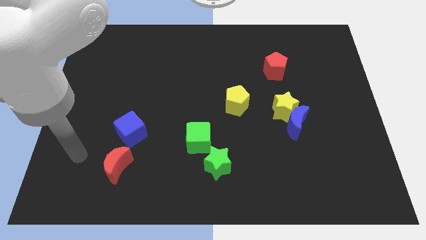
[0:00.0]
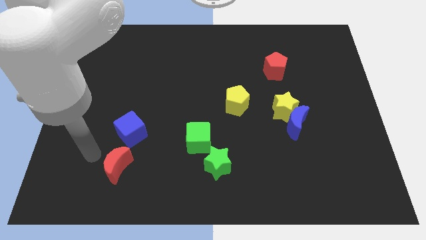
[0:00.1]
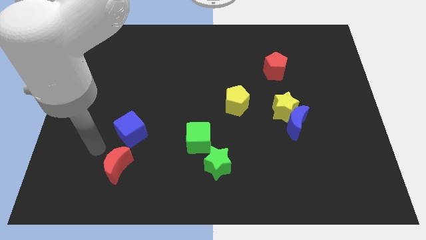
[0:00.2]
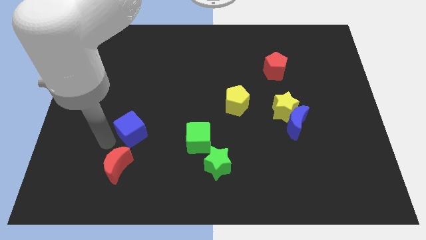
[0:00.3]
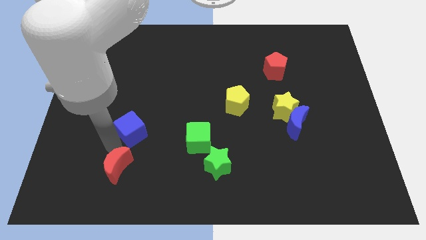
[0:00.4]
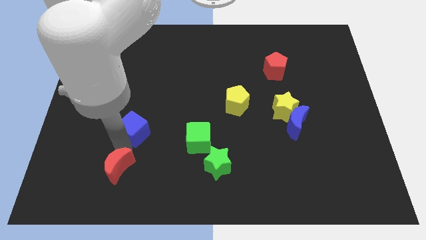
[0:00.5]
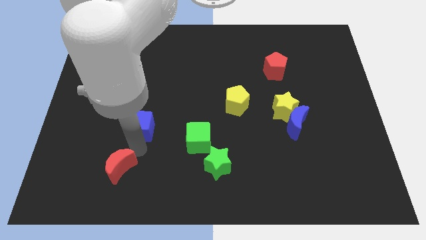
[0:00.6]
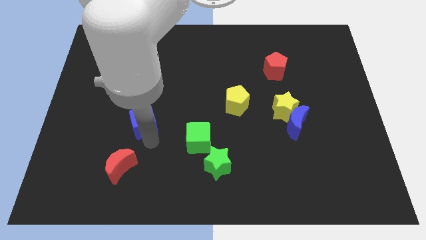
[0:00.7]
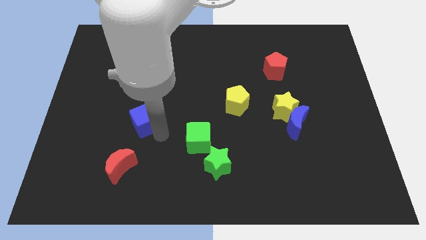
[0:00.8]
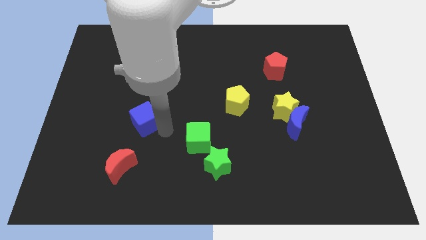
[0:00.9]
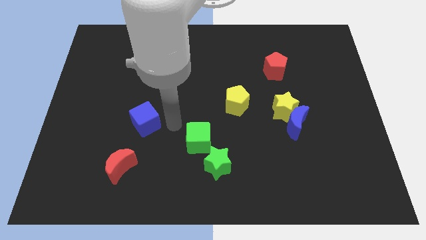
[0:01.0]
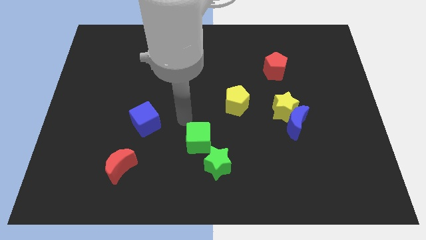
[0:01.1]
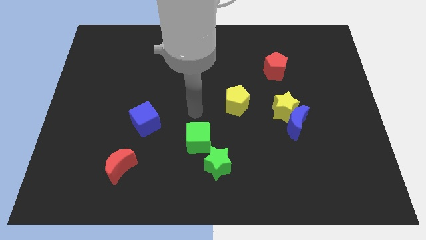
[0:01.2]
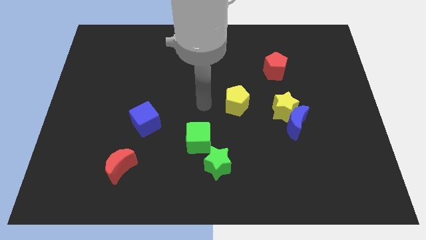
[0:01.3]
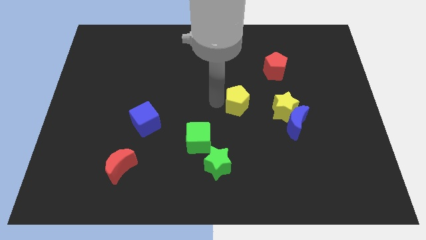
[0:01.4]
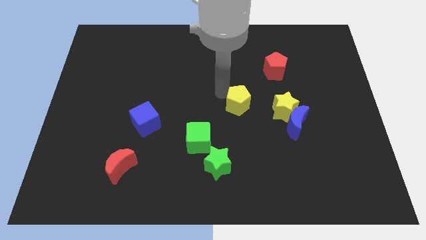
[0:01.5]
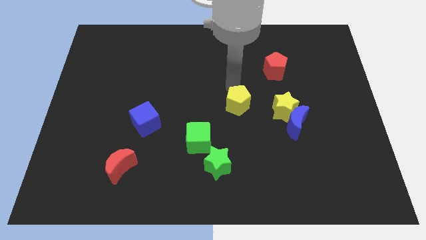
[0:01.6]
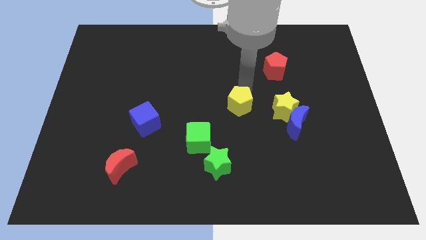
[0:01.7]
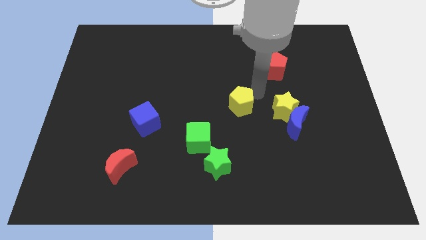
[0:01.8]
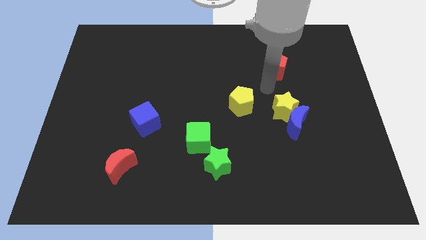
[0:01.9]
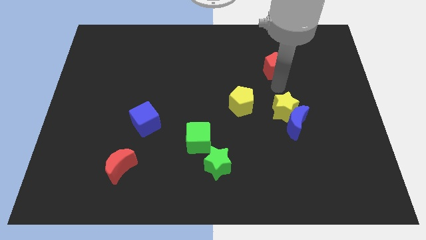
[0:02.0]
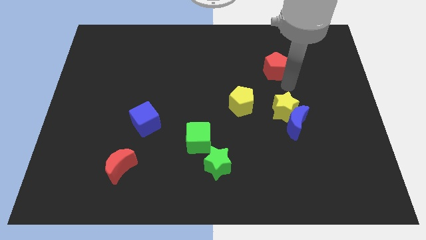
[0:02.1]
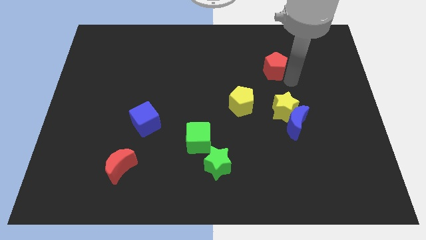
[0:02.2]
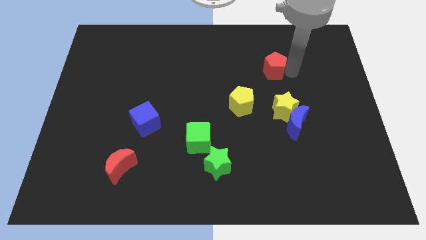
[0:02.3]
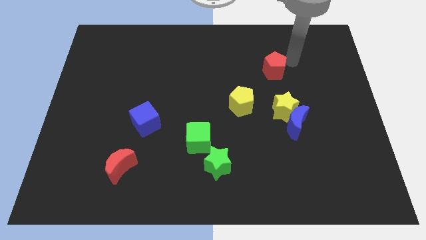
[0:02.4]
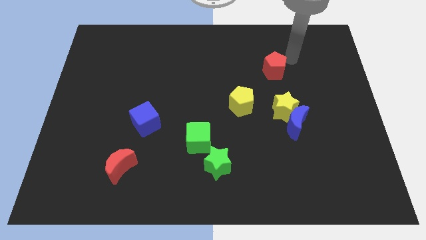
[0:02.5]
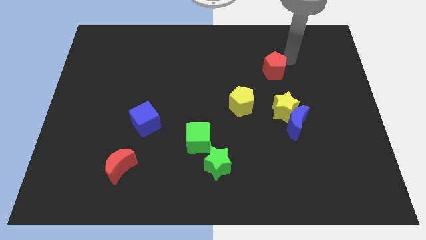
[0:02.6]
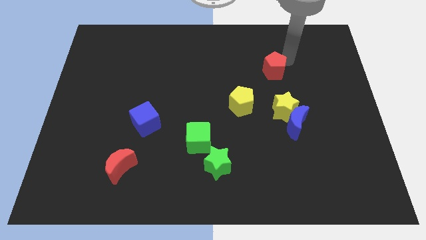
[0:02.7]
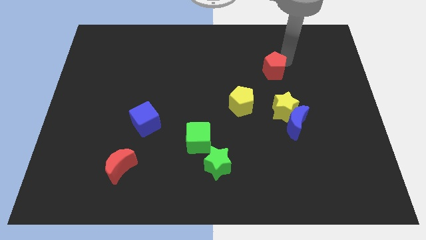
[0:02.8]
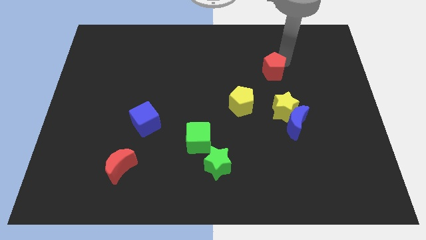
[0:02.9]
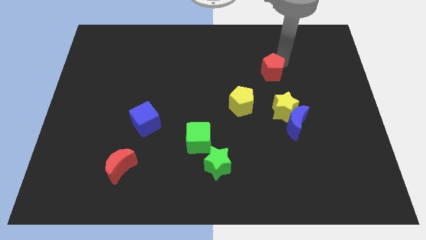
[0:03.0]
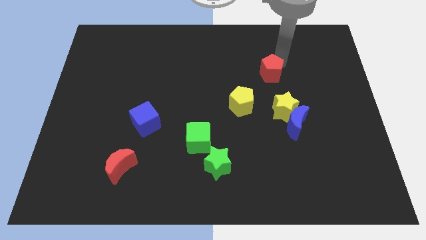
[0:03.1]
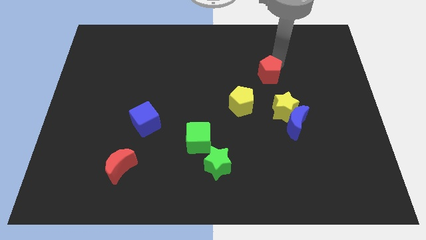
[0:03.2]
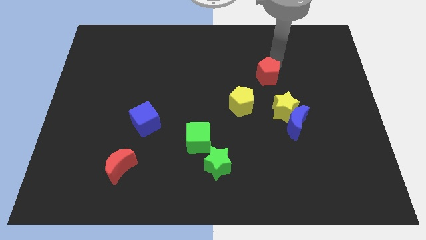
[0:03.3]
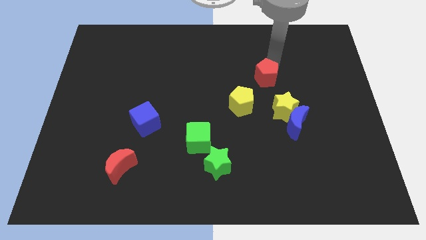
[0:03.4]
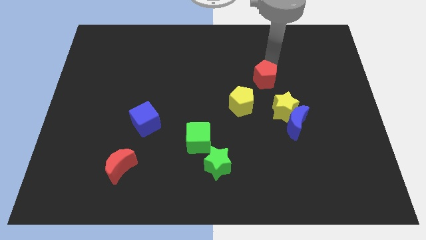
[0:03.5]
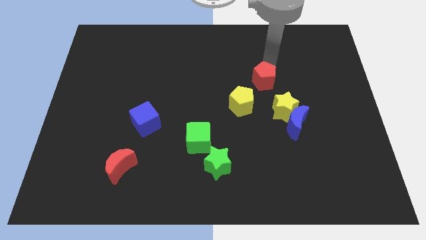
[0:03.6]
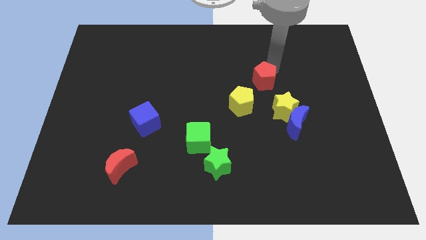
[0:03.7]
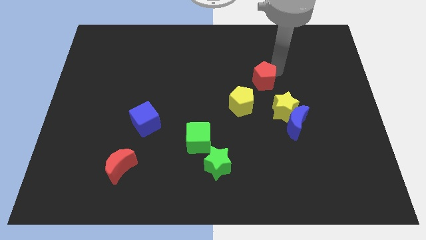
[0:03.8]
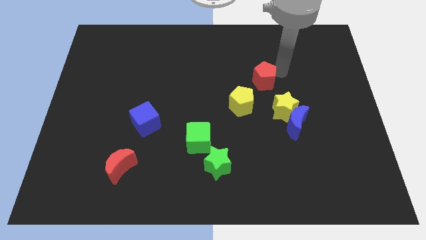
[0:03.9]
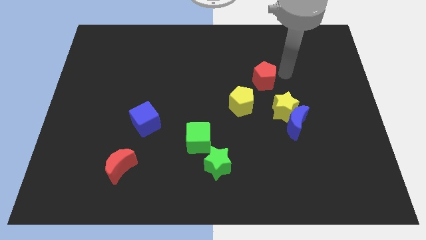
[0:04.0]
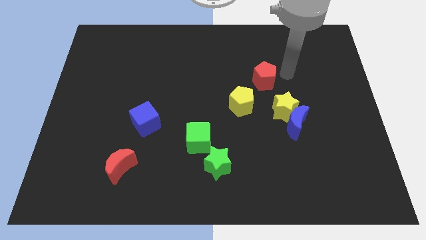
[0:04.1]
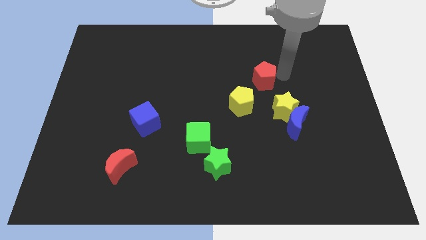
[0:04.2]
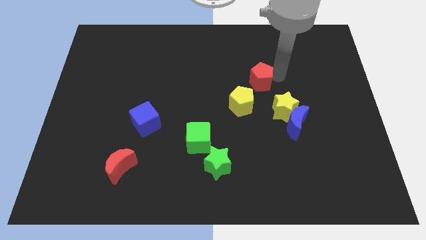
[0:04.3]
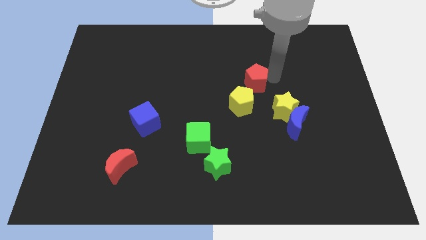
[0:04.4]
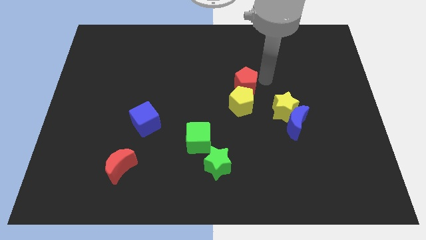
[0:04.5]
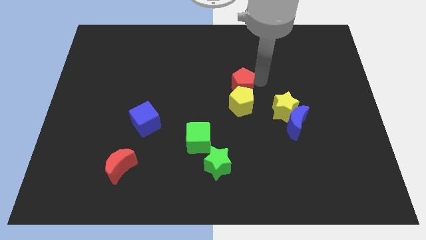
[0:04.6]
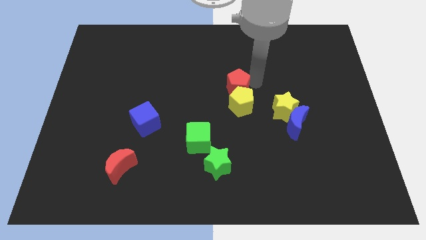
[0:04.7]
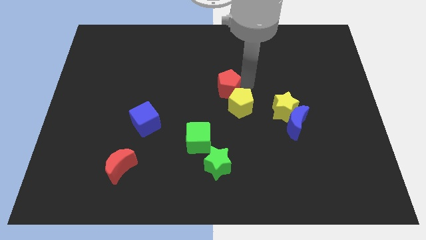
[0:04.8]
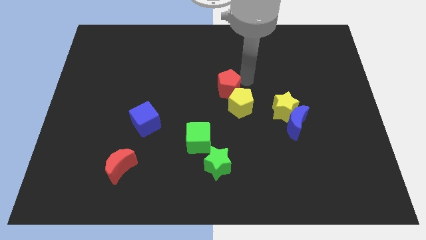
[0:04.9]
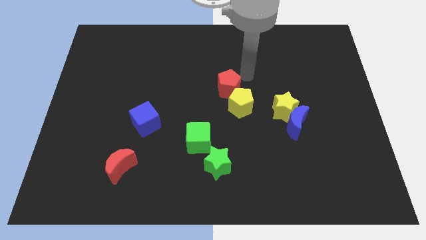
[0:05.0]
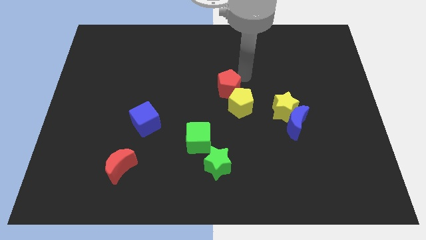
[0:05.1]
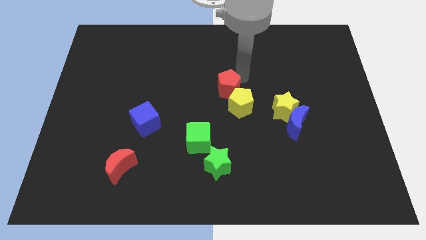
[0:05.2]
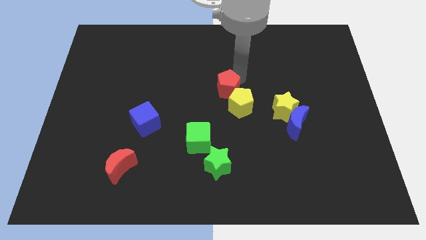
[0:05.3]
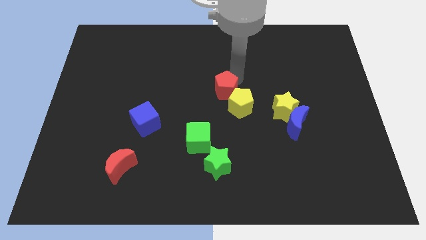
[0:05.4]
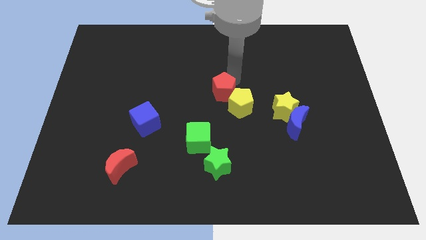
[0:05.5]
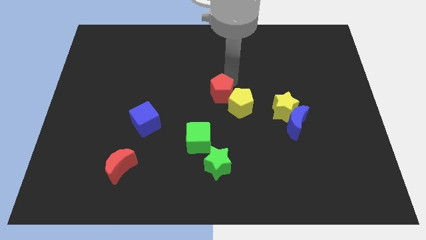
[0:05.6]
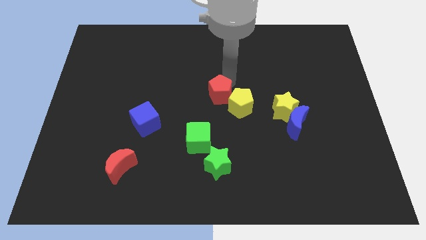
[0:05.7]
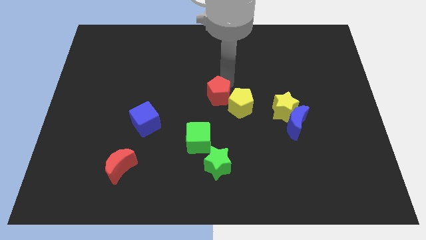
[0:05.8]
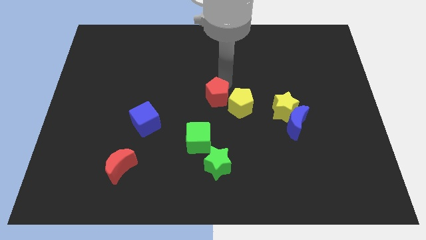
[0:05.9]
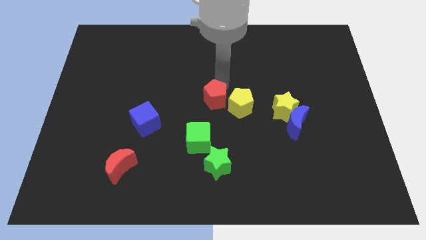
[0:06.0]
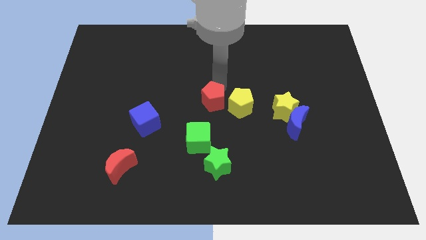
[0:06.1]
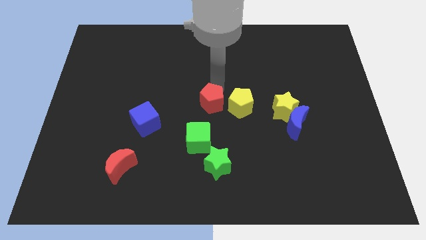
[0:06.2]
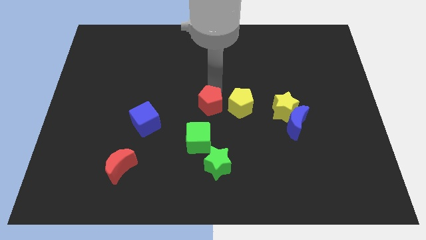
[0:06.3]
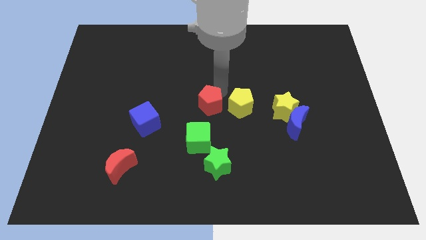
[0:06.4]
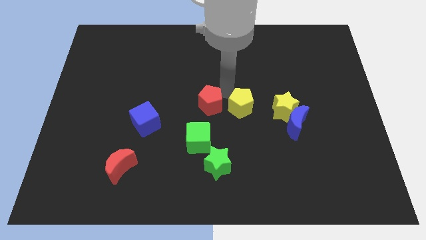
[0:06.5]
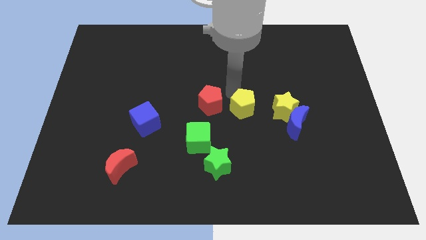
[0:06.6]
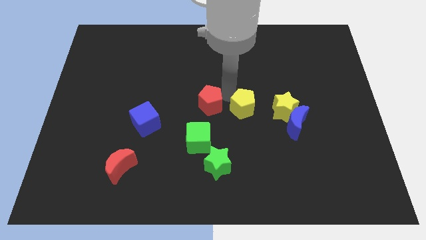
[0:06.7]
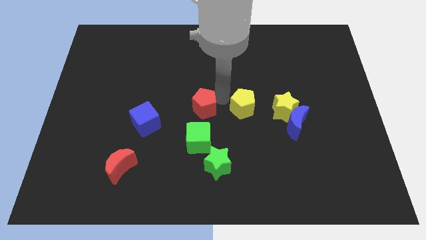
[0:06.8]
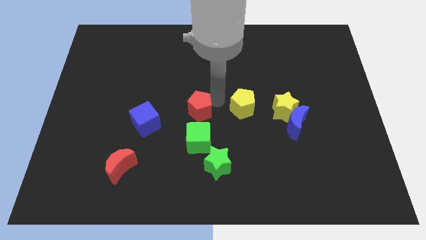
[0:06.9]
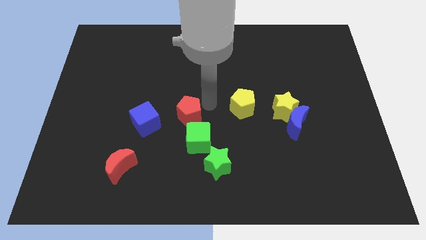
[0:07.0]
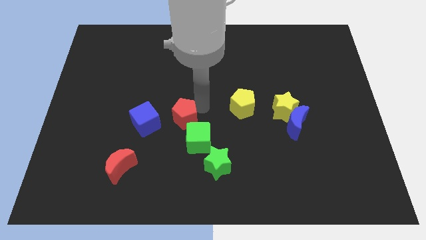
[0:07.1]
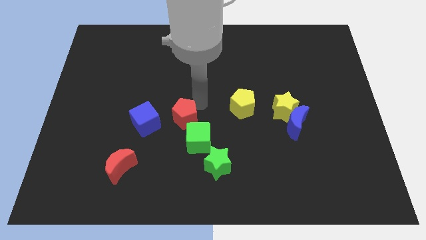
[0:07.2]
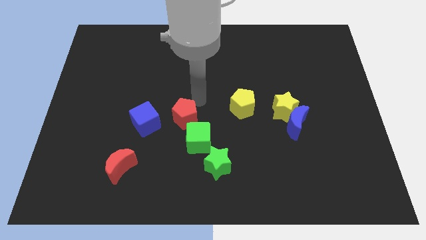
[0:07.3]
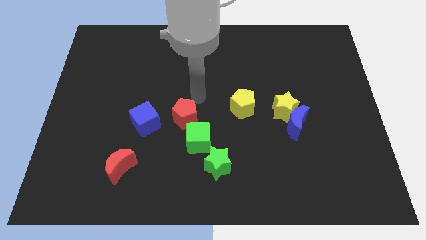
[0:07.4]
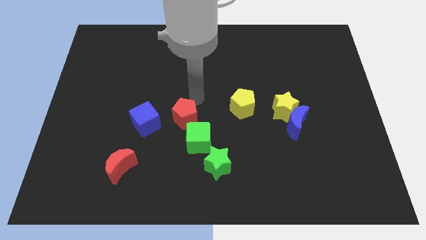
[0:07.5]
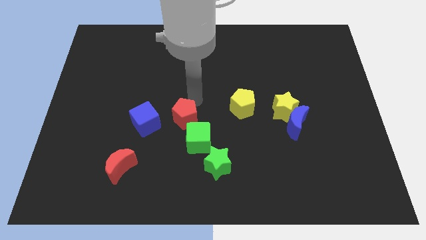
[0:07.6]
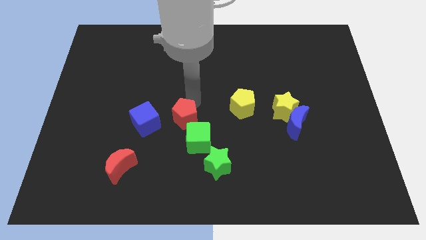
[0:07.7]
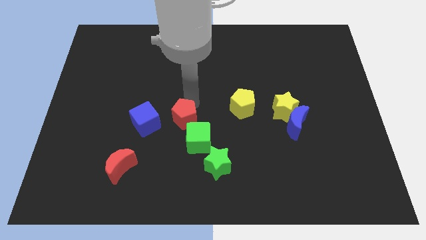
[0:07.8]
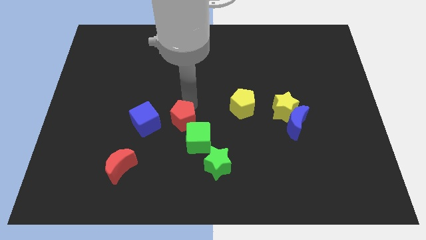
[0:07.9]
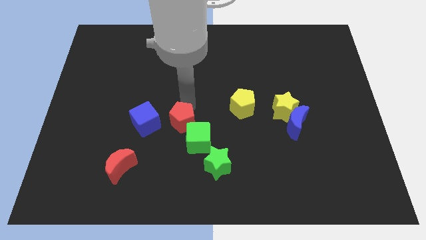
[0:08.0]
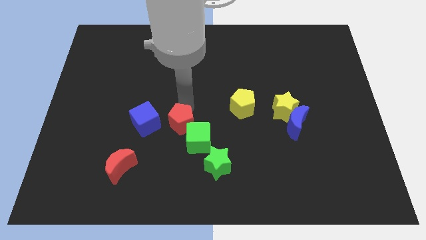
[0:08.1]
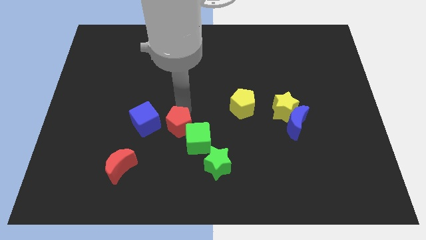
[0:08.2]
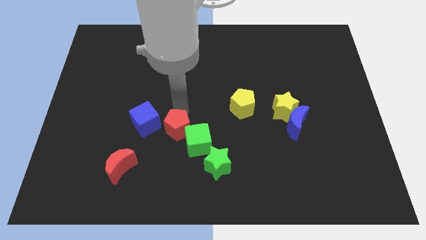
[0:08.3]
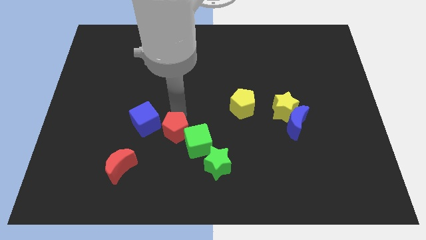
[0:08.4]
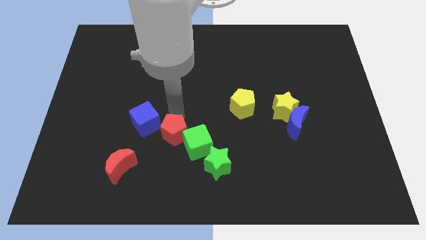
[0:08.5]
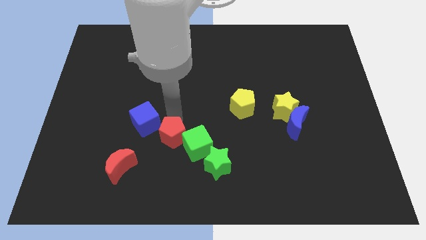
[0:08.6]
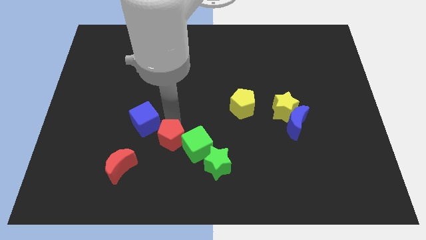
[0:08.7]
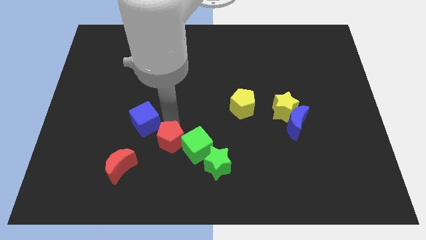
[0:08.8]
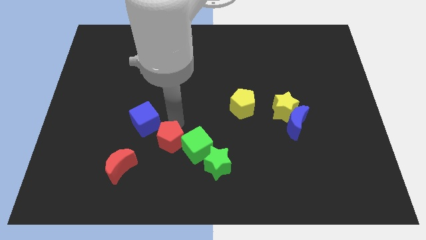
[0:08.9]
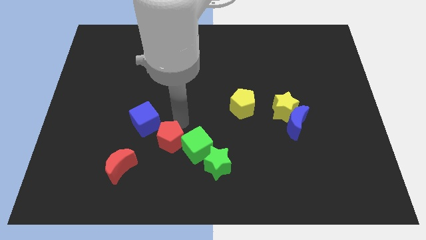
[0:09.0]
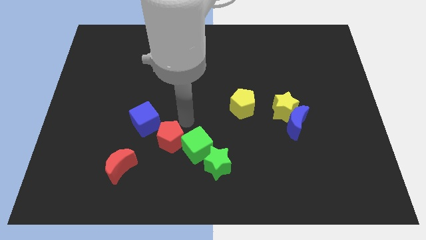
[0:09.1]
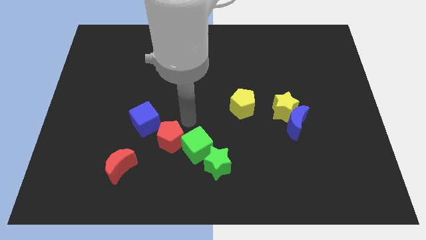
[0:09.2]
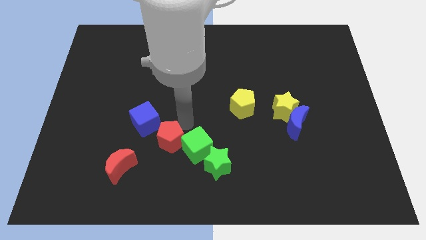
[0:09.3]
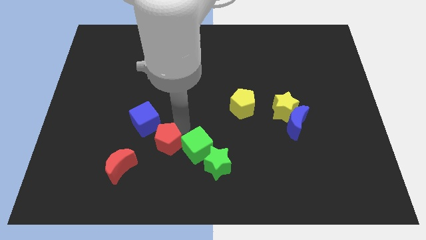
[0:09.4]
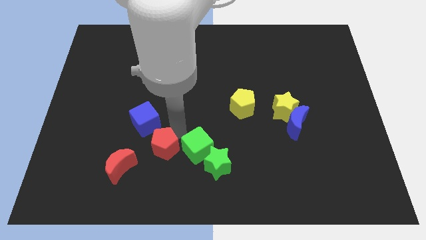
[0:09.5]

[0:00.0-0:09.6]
move the red pentagon below the blue cube
